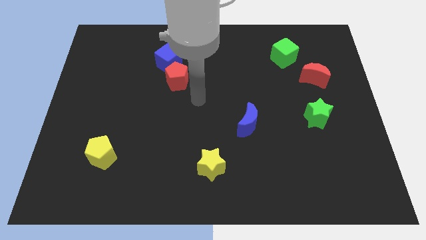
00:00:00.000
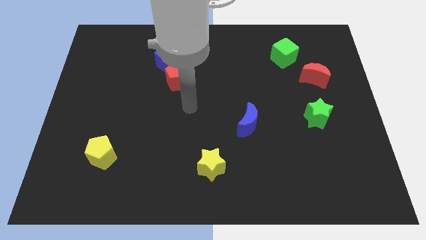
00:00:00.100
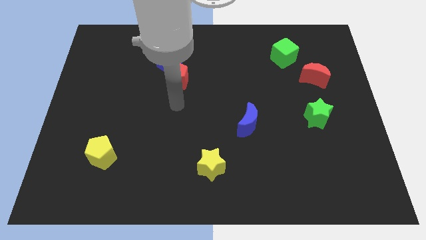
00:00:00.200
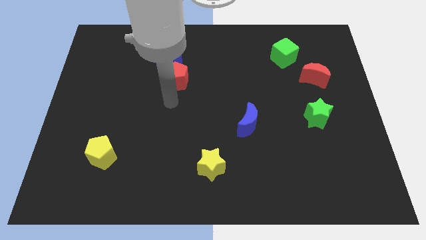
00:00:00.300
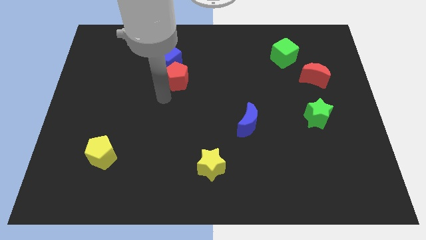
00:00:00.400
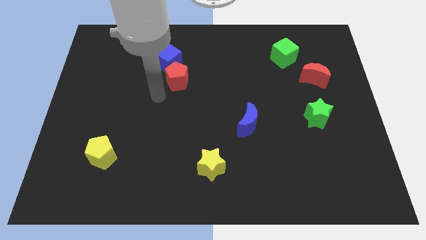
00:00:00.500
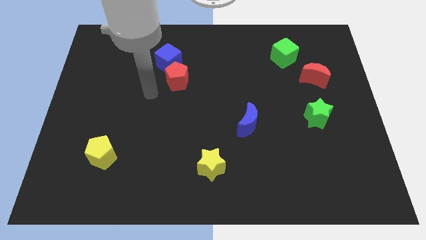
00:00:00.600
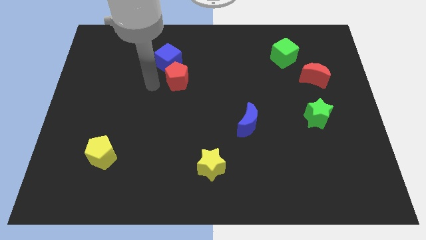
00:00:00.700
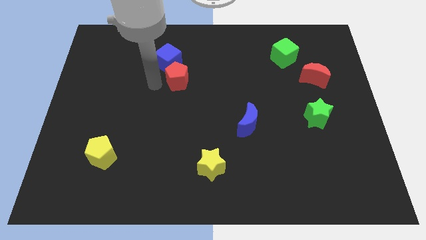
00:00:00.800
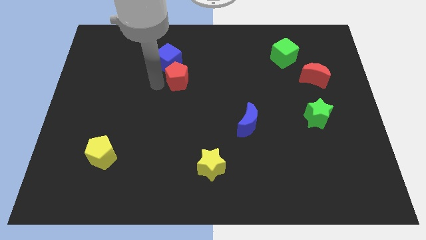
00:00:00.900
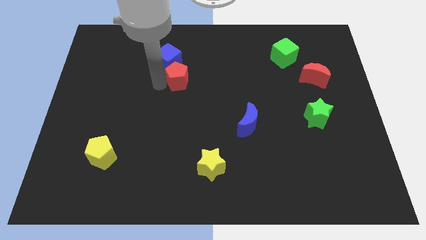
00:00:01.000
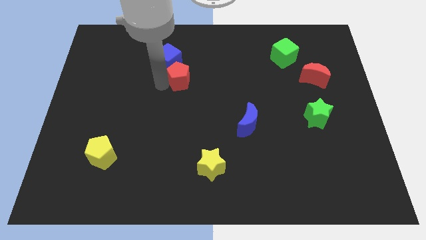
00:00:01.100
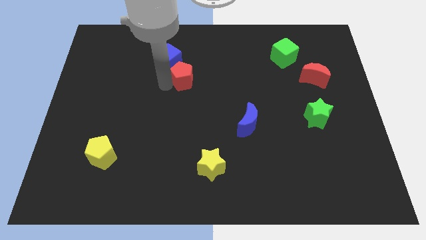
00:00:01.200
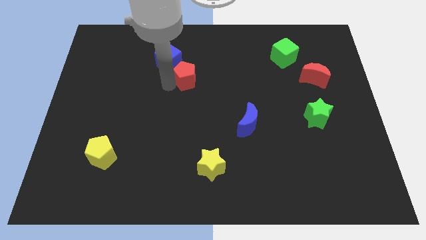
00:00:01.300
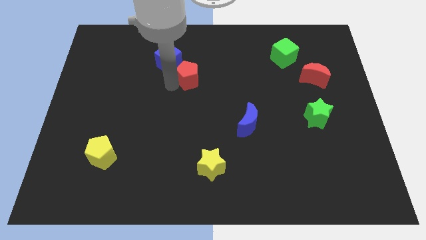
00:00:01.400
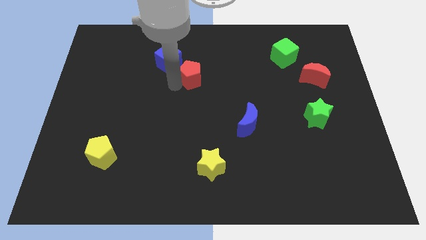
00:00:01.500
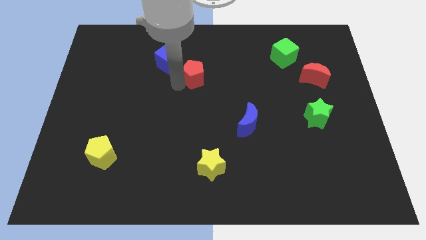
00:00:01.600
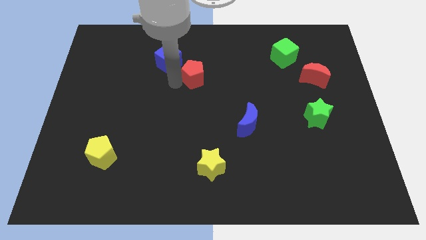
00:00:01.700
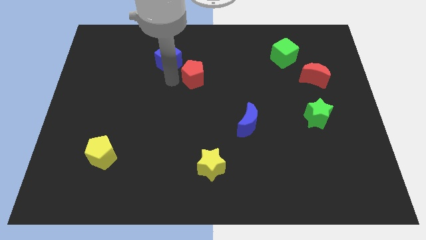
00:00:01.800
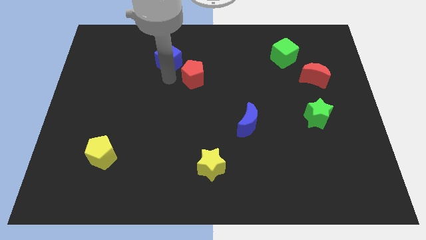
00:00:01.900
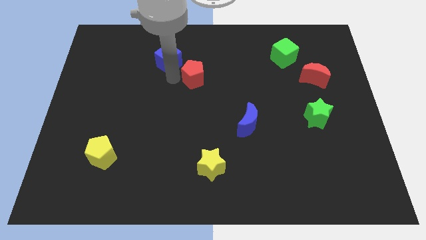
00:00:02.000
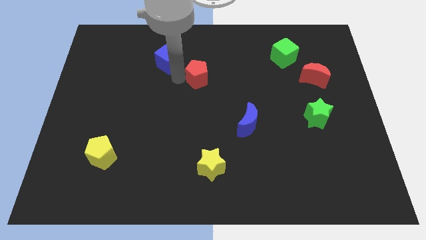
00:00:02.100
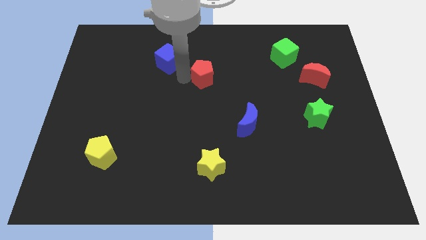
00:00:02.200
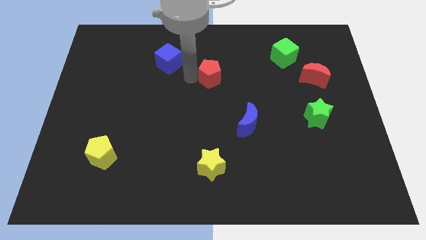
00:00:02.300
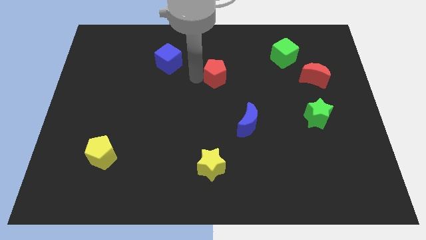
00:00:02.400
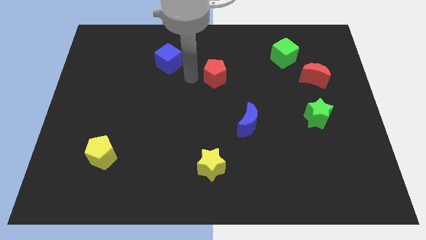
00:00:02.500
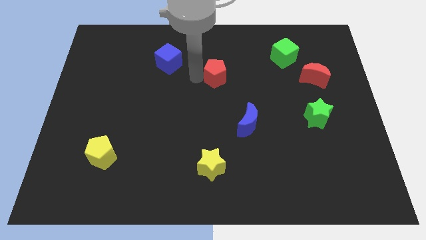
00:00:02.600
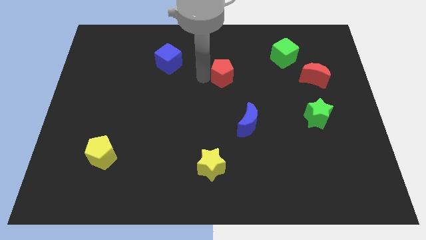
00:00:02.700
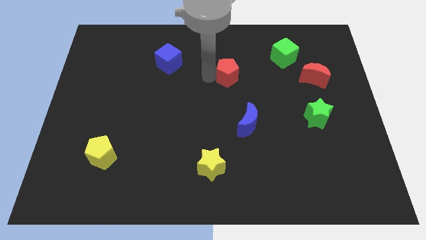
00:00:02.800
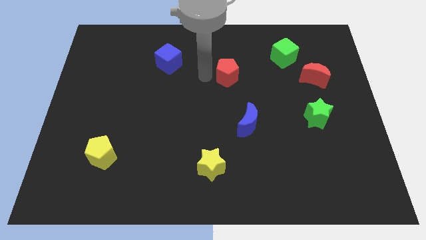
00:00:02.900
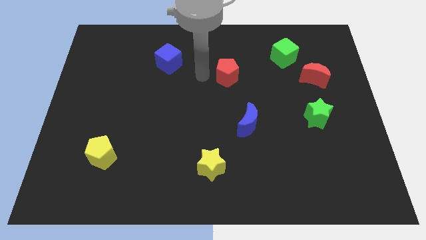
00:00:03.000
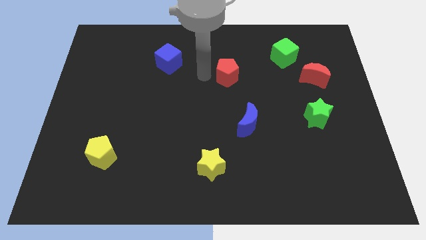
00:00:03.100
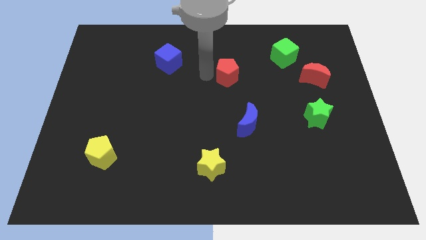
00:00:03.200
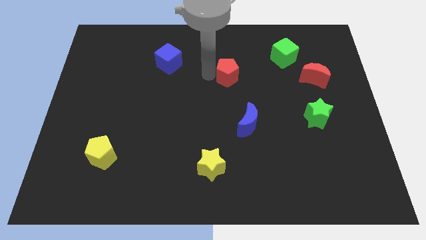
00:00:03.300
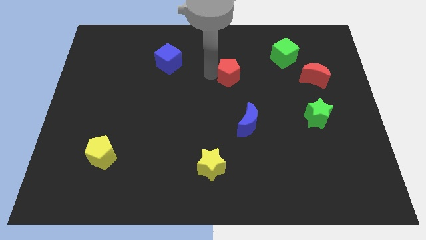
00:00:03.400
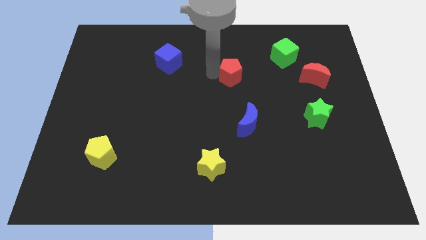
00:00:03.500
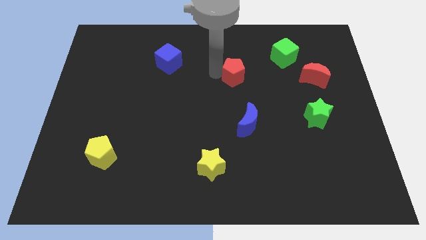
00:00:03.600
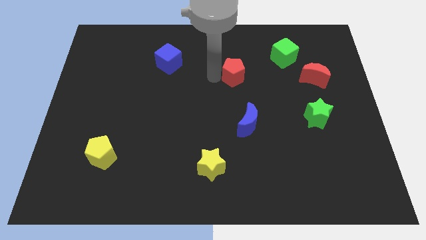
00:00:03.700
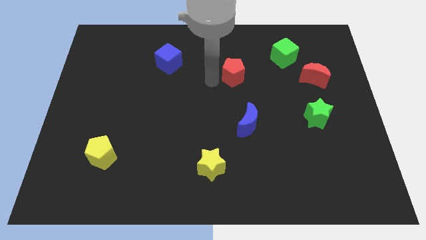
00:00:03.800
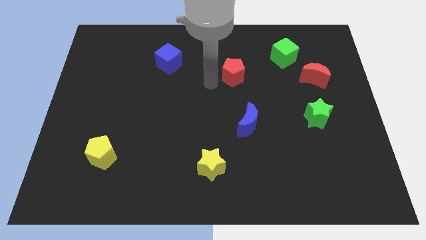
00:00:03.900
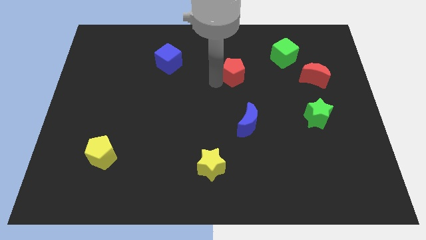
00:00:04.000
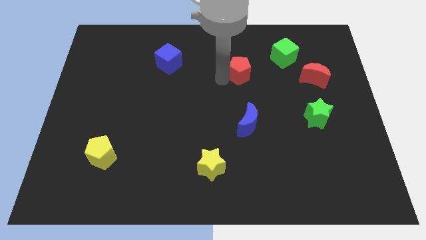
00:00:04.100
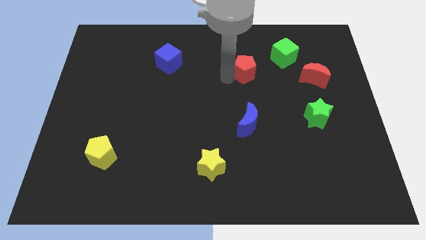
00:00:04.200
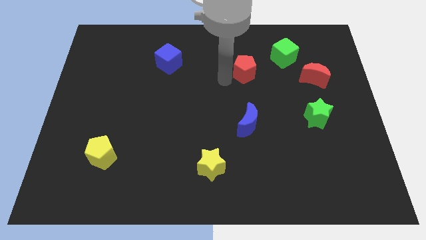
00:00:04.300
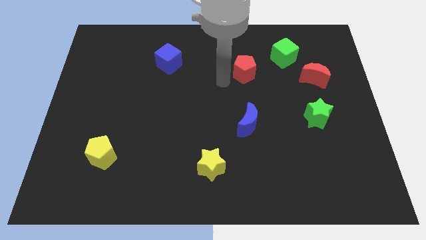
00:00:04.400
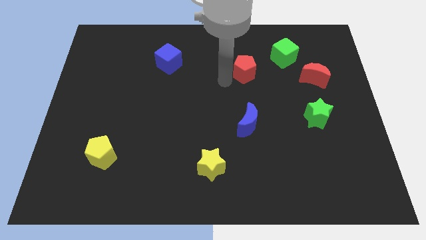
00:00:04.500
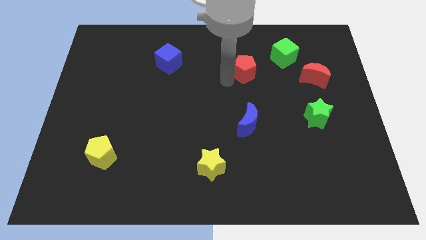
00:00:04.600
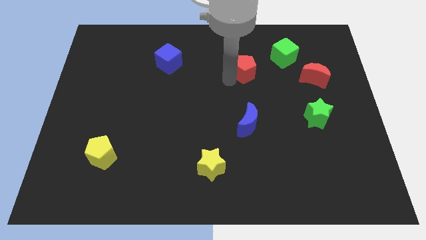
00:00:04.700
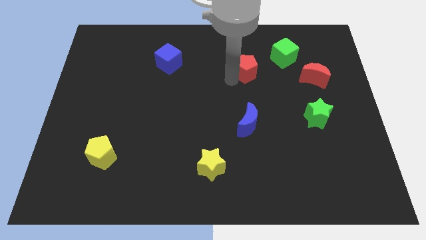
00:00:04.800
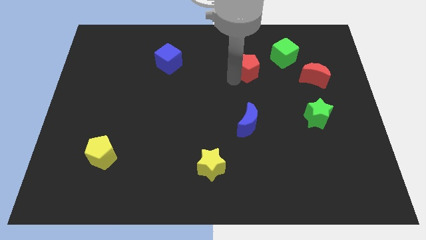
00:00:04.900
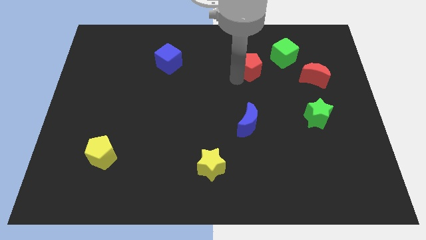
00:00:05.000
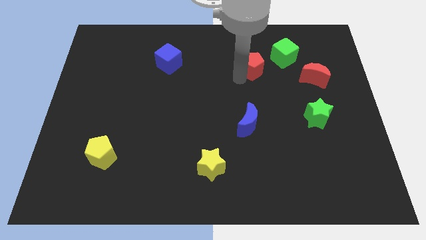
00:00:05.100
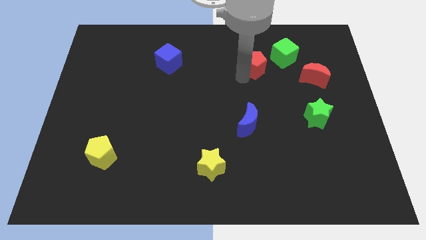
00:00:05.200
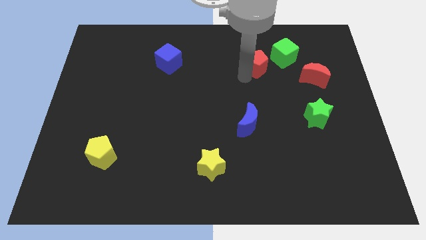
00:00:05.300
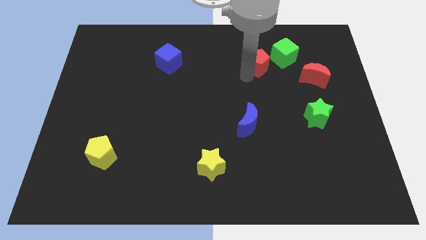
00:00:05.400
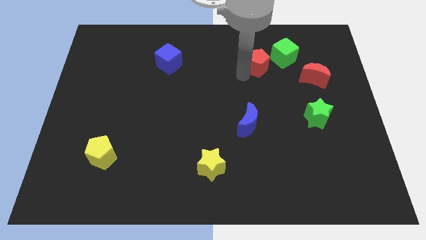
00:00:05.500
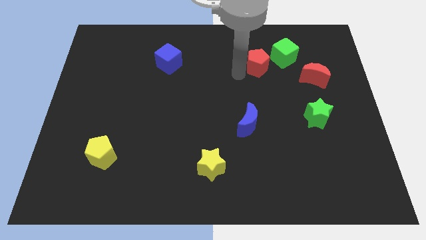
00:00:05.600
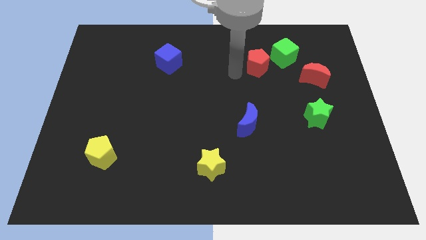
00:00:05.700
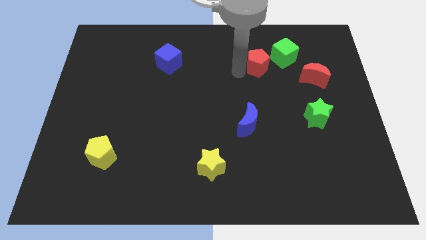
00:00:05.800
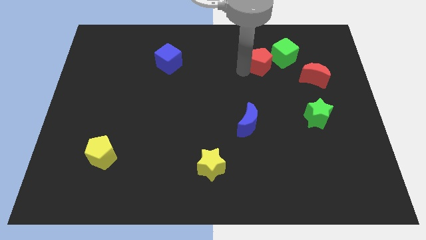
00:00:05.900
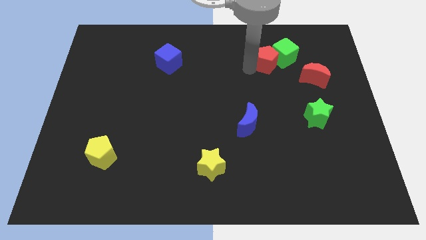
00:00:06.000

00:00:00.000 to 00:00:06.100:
put the red pentagon next to the green cube
